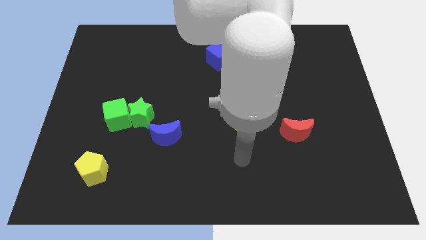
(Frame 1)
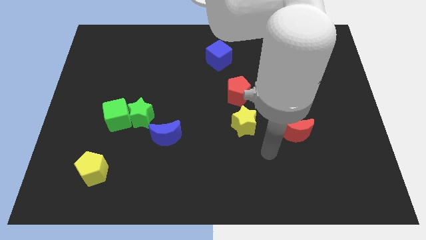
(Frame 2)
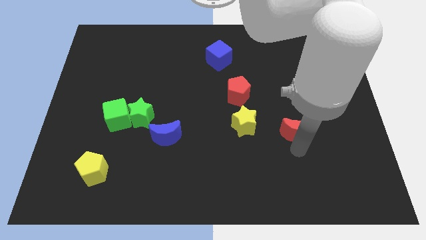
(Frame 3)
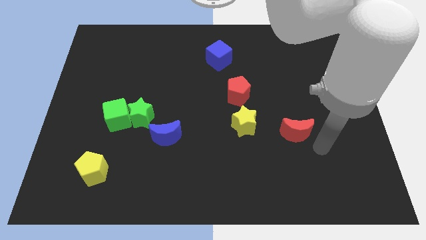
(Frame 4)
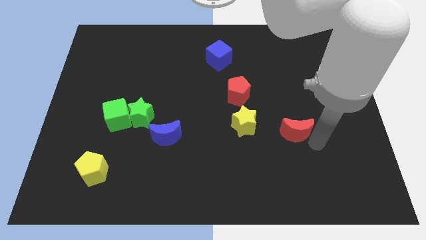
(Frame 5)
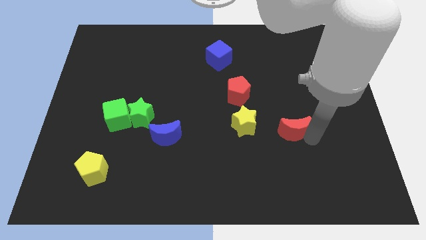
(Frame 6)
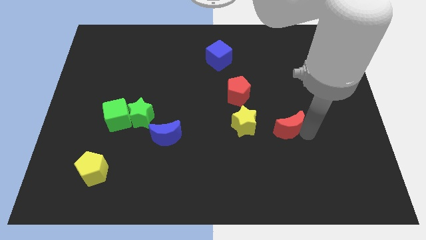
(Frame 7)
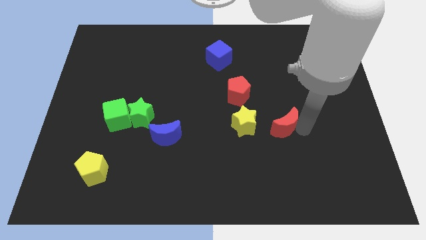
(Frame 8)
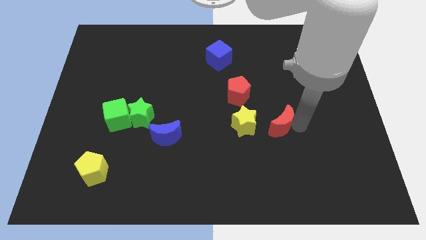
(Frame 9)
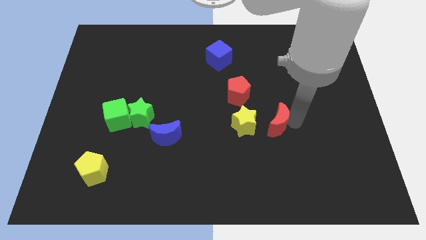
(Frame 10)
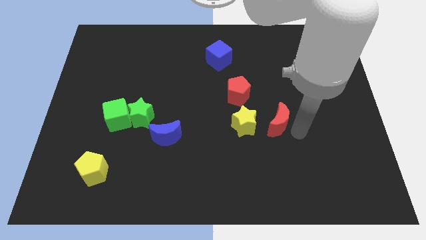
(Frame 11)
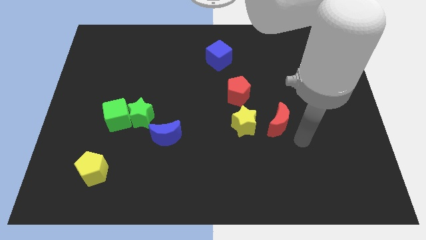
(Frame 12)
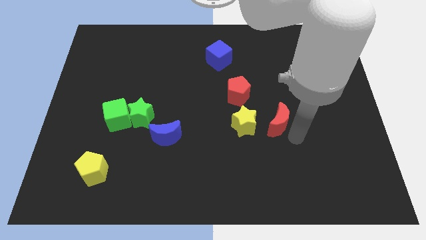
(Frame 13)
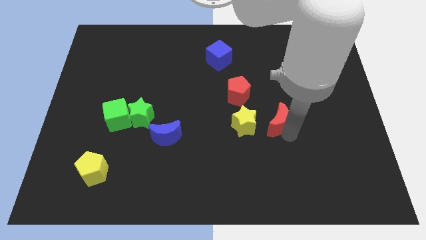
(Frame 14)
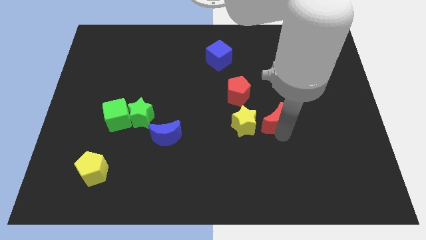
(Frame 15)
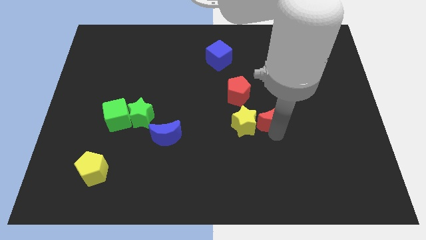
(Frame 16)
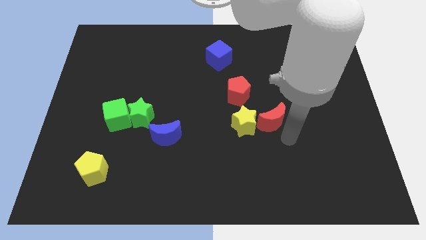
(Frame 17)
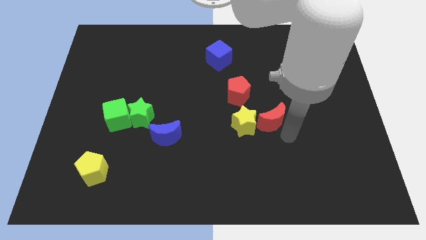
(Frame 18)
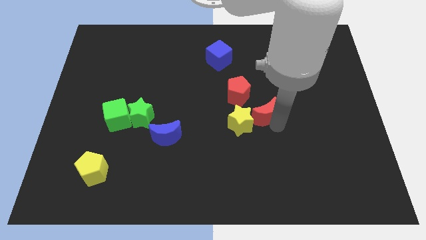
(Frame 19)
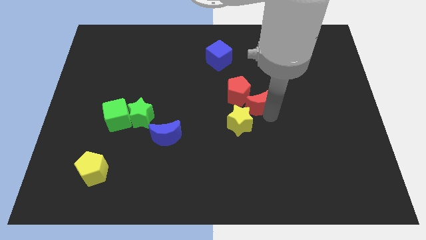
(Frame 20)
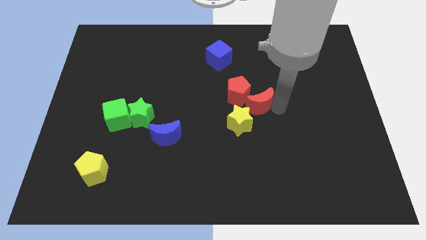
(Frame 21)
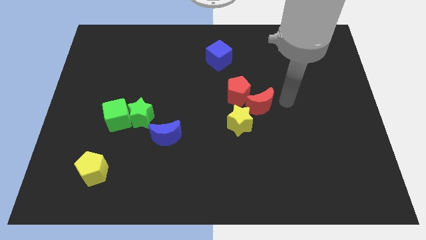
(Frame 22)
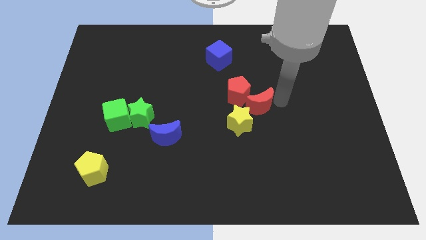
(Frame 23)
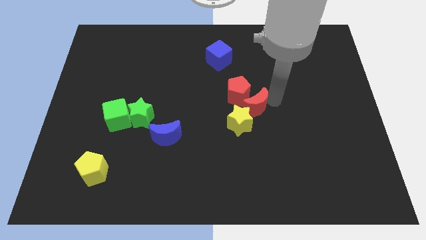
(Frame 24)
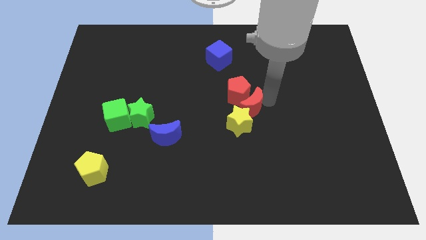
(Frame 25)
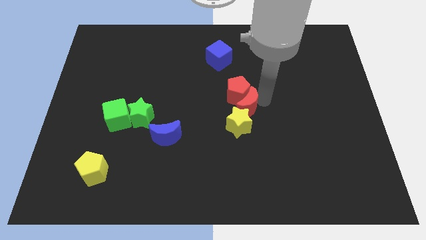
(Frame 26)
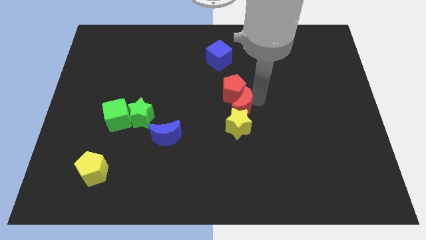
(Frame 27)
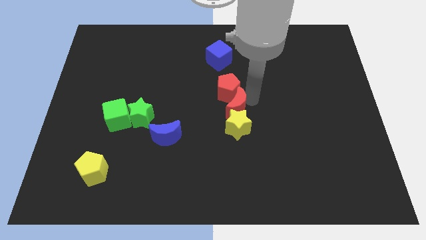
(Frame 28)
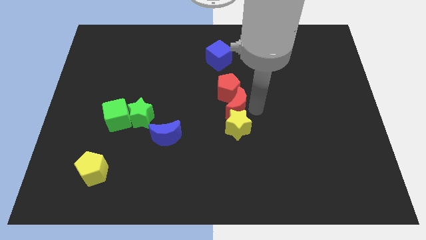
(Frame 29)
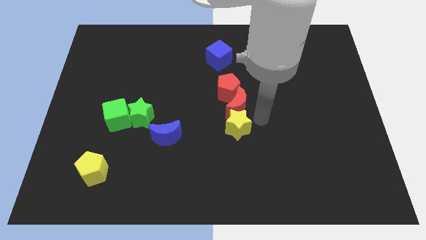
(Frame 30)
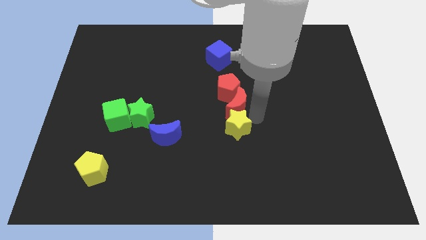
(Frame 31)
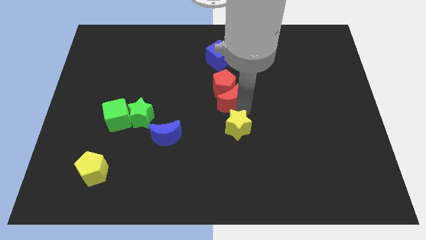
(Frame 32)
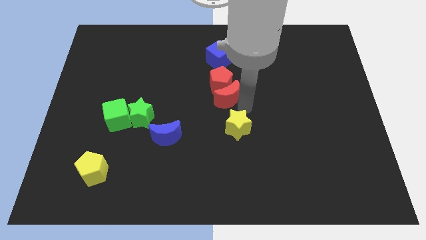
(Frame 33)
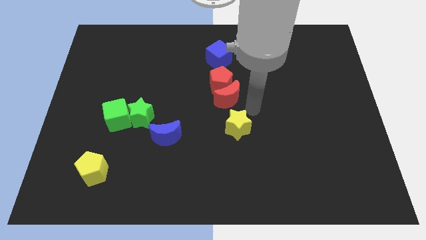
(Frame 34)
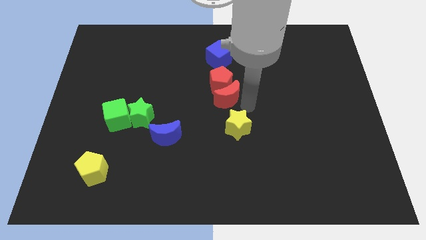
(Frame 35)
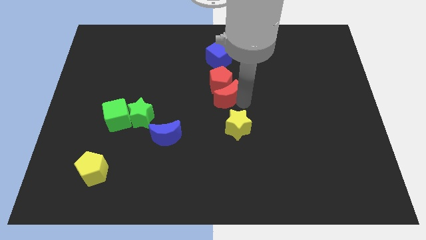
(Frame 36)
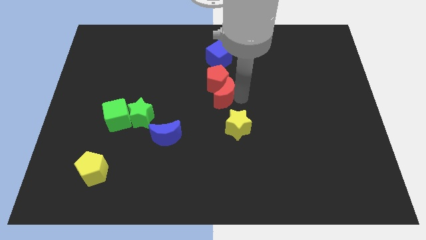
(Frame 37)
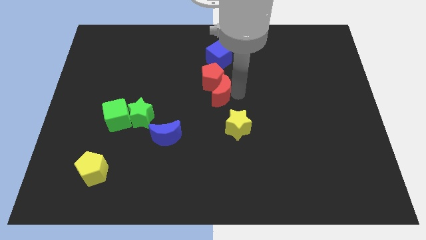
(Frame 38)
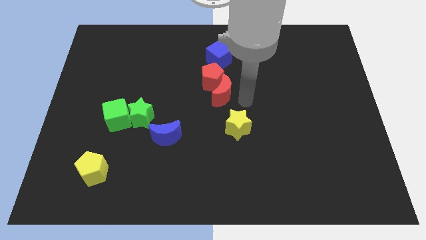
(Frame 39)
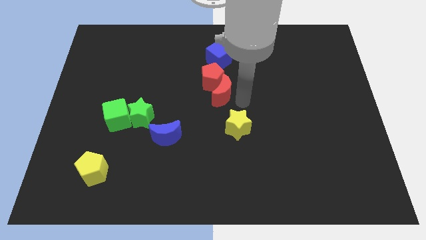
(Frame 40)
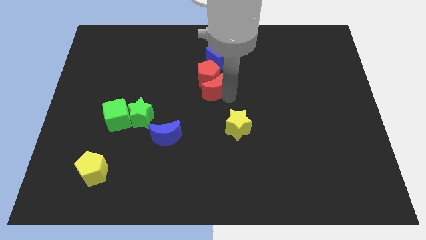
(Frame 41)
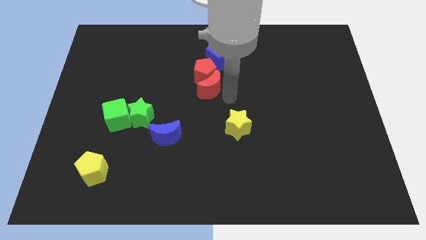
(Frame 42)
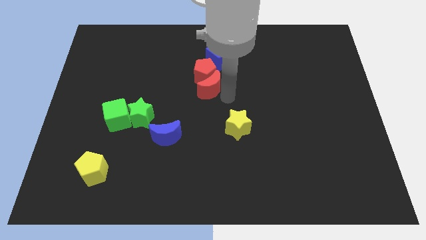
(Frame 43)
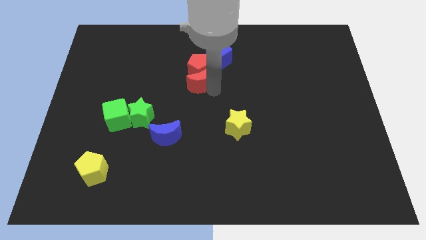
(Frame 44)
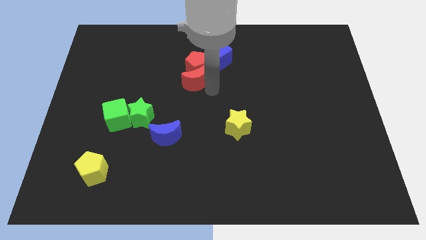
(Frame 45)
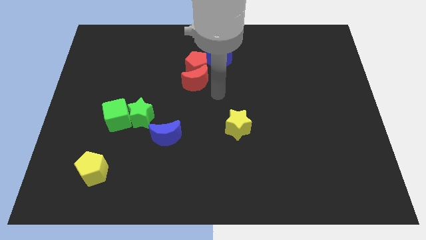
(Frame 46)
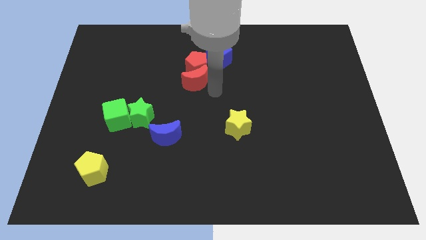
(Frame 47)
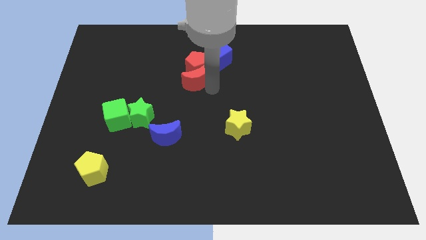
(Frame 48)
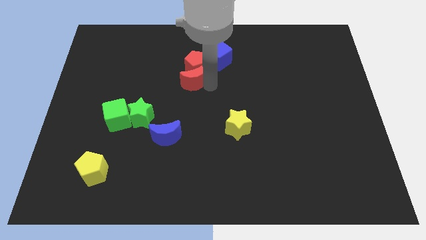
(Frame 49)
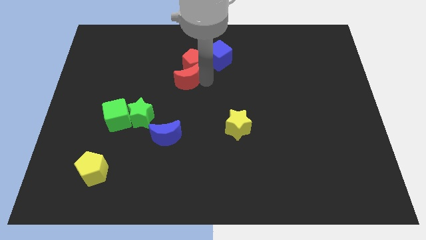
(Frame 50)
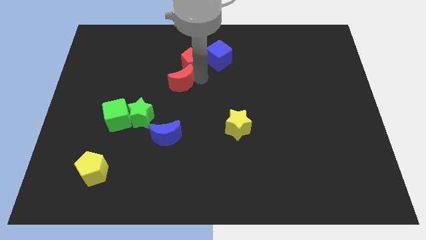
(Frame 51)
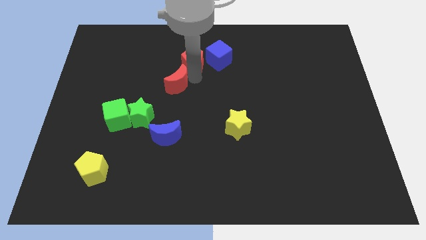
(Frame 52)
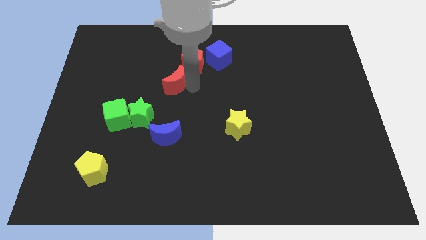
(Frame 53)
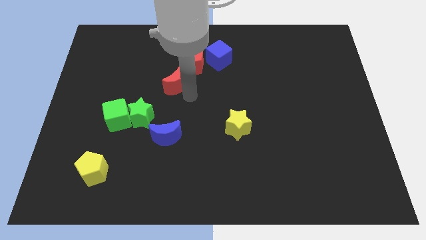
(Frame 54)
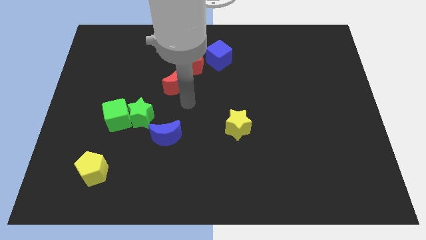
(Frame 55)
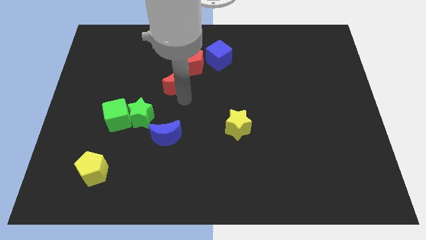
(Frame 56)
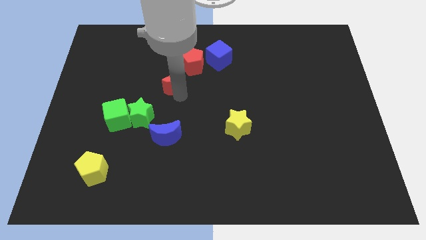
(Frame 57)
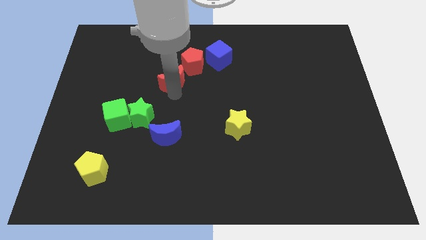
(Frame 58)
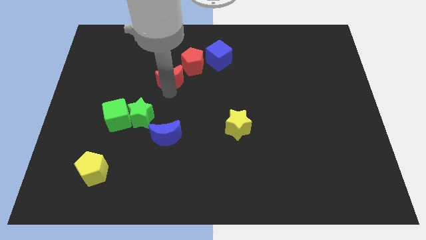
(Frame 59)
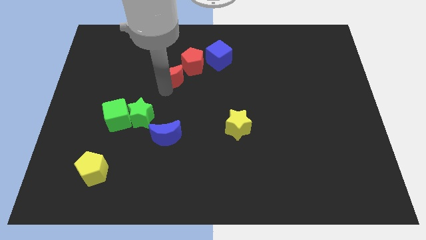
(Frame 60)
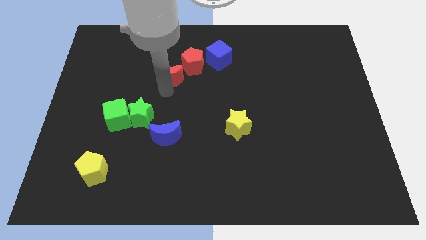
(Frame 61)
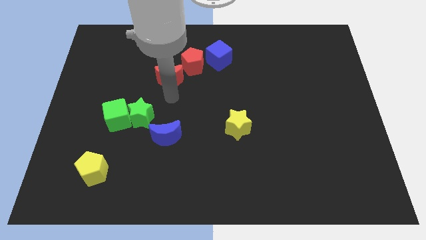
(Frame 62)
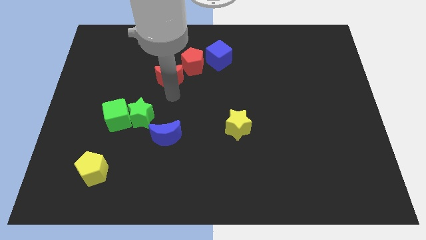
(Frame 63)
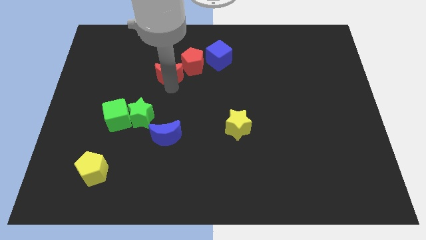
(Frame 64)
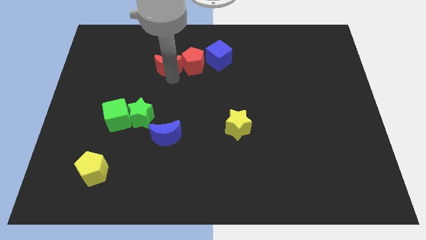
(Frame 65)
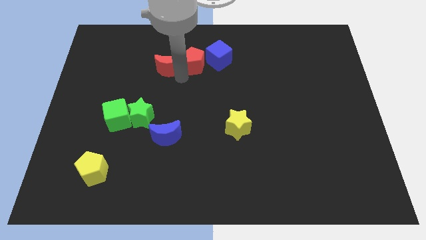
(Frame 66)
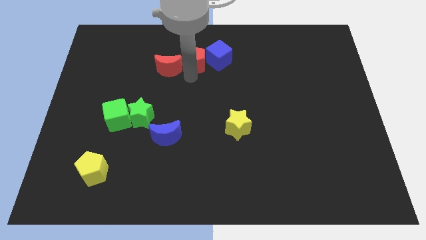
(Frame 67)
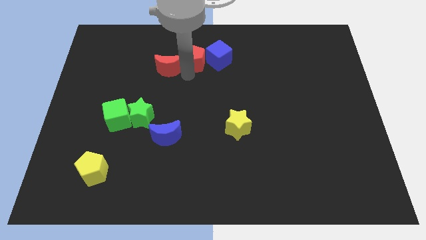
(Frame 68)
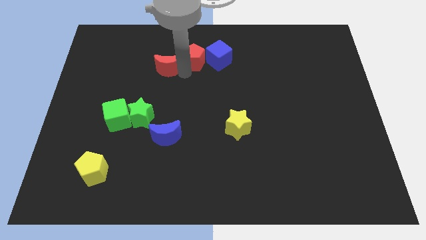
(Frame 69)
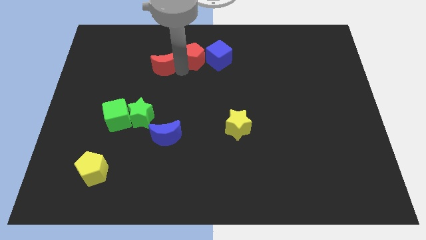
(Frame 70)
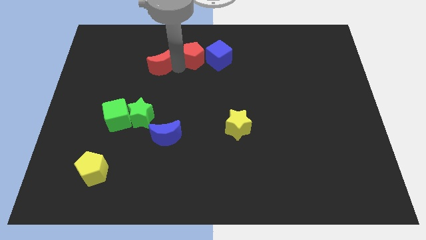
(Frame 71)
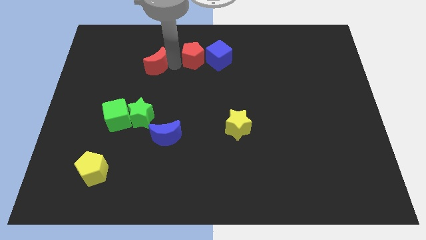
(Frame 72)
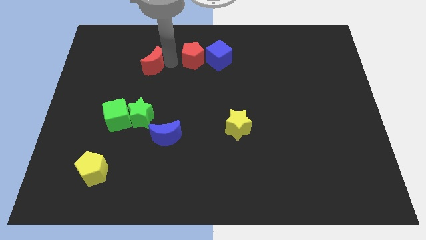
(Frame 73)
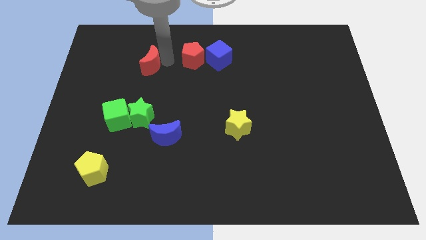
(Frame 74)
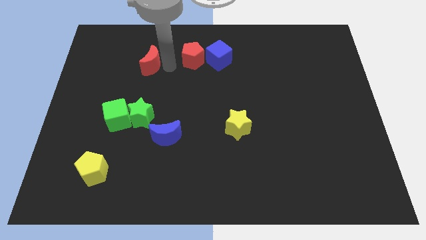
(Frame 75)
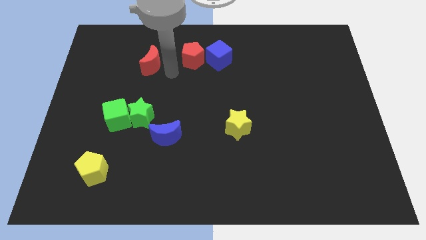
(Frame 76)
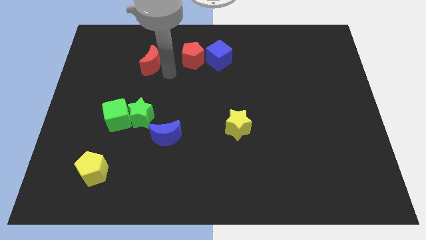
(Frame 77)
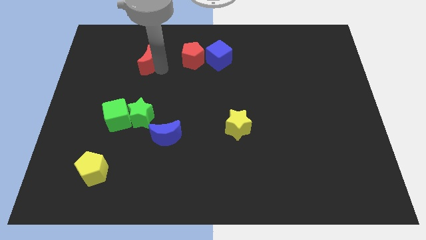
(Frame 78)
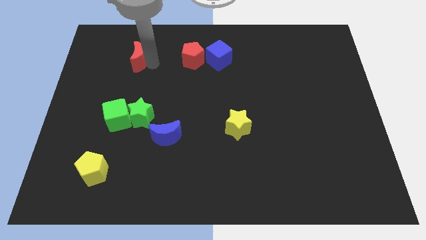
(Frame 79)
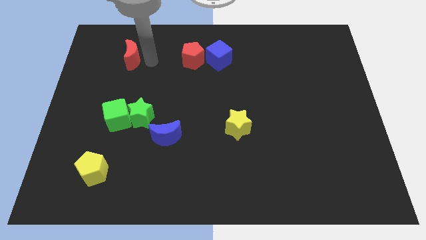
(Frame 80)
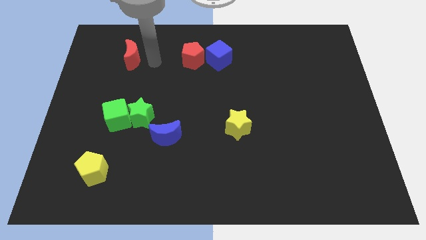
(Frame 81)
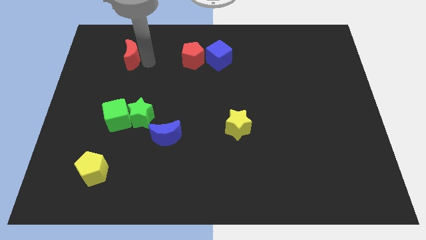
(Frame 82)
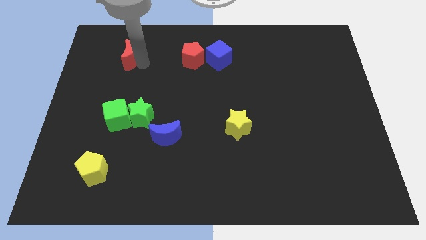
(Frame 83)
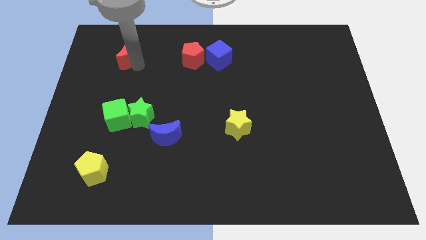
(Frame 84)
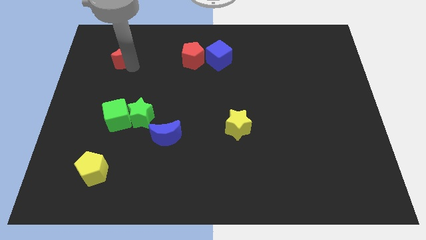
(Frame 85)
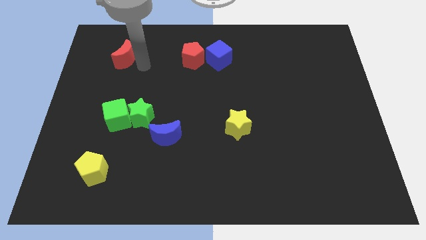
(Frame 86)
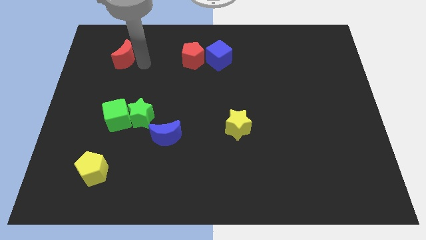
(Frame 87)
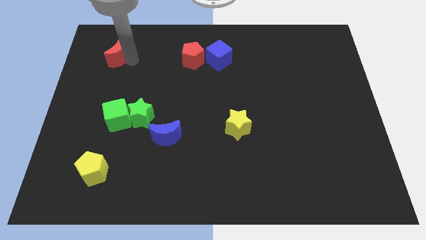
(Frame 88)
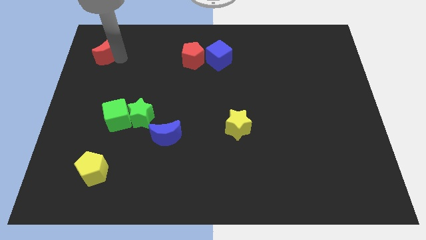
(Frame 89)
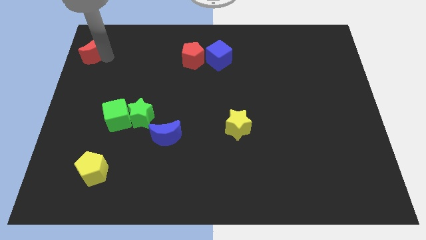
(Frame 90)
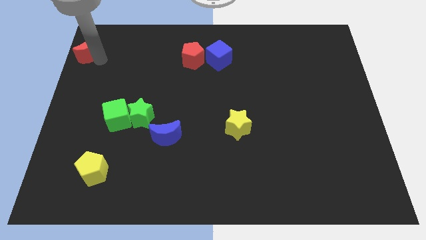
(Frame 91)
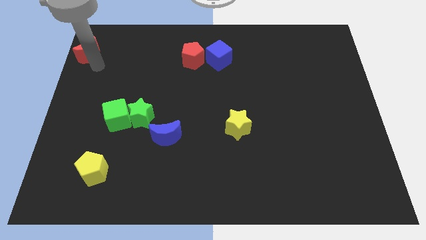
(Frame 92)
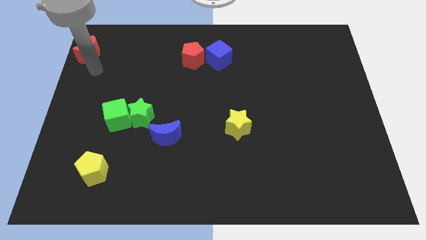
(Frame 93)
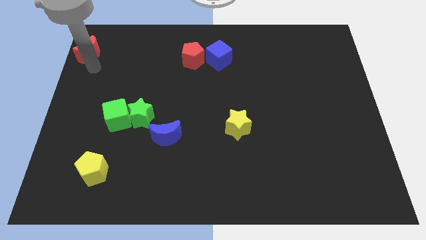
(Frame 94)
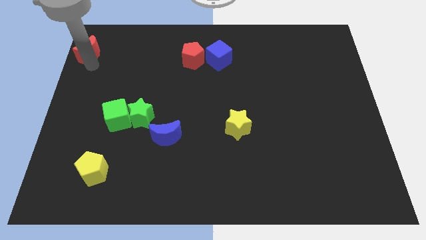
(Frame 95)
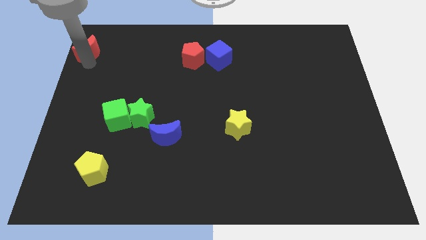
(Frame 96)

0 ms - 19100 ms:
move the red moon to the top left
